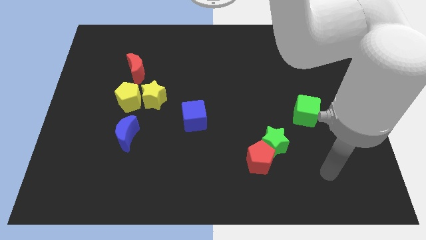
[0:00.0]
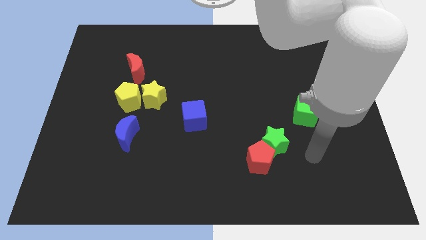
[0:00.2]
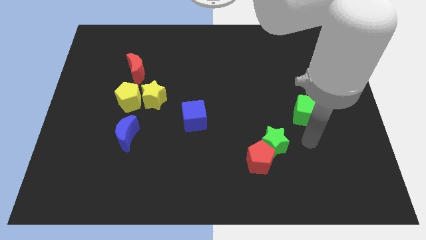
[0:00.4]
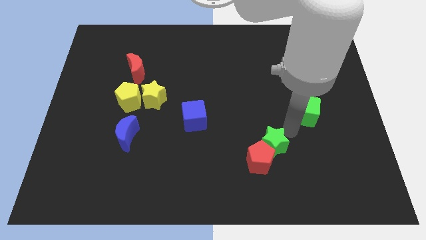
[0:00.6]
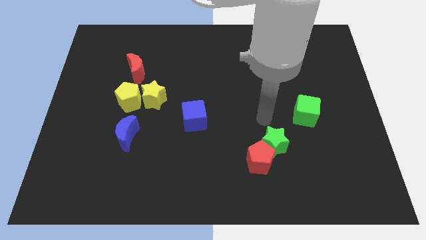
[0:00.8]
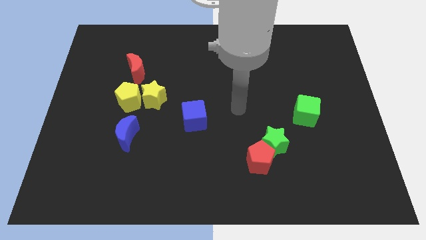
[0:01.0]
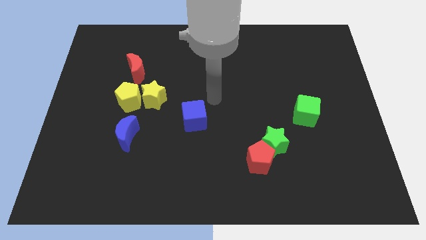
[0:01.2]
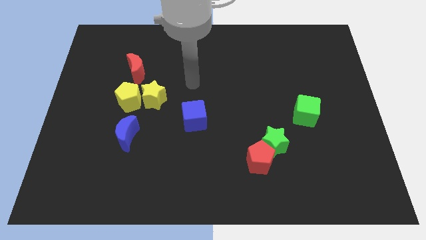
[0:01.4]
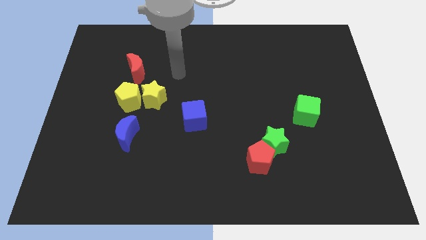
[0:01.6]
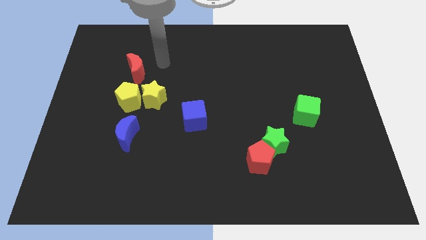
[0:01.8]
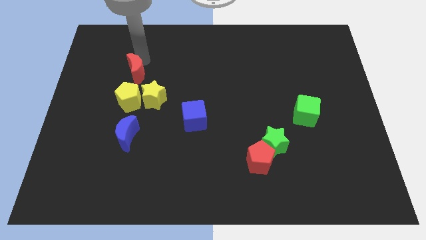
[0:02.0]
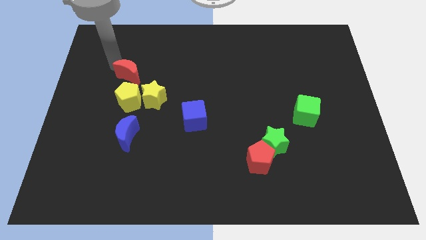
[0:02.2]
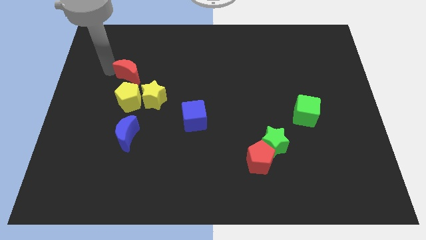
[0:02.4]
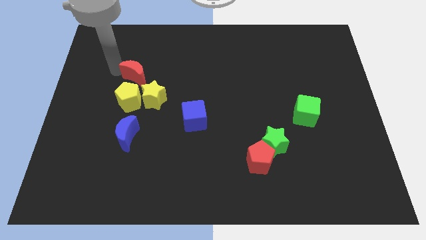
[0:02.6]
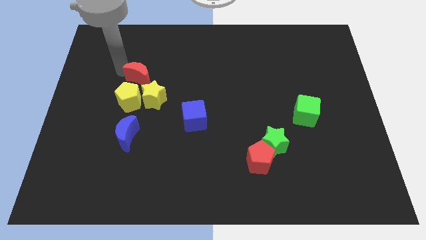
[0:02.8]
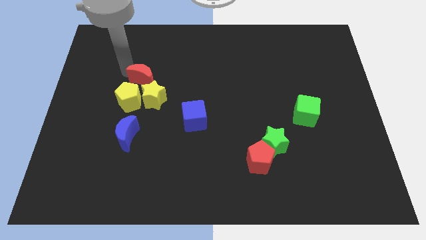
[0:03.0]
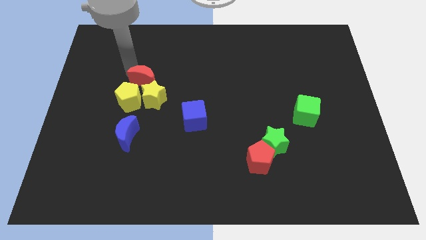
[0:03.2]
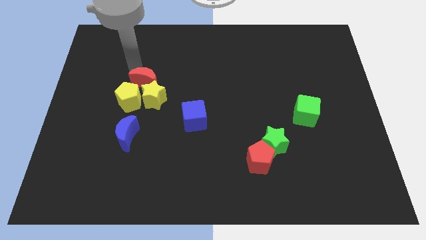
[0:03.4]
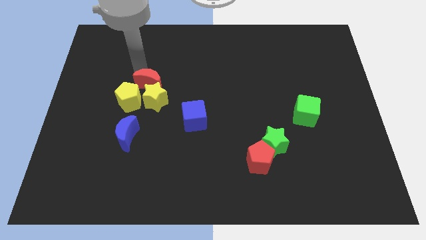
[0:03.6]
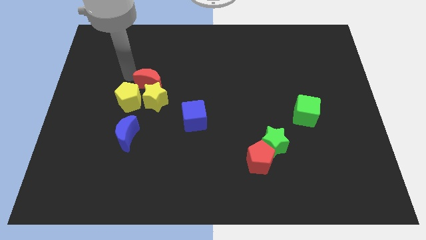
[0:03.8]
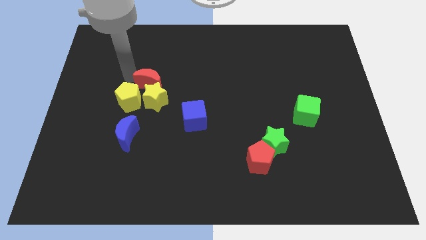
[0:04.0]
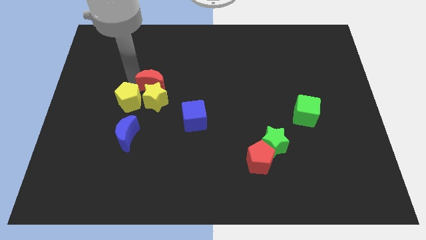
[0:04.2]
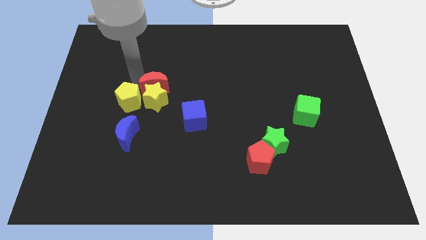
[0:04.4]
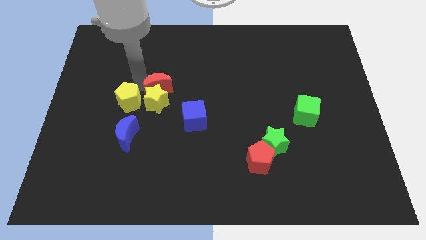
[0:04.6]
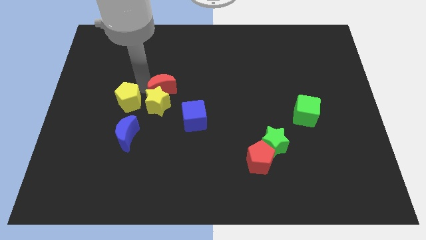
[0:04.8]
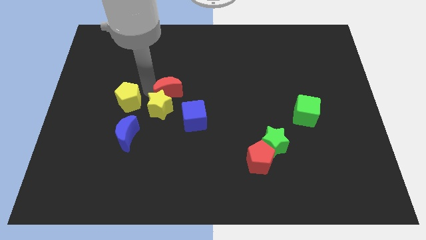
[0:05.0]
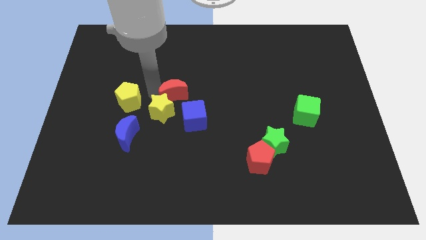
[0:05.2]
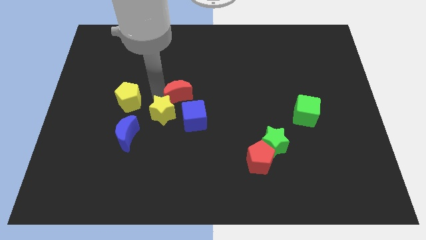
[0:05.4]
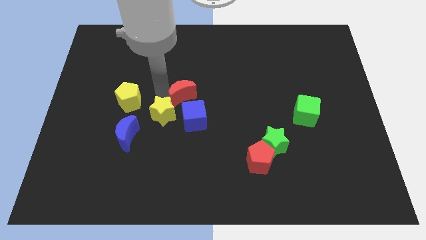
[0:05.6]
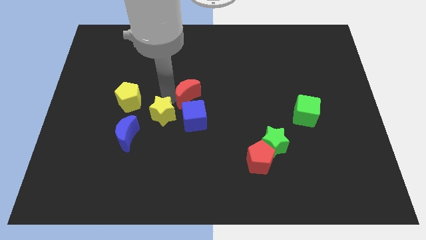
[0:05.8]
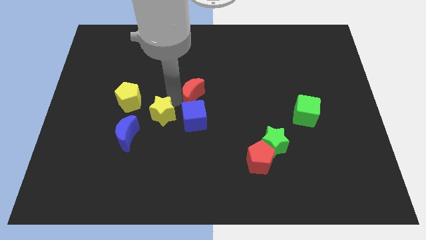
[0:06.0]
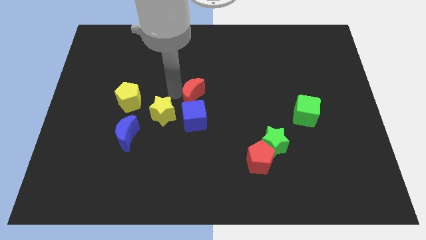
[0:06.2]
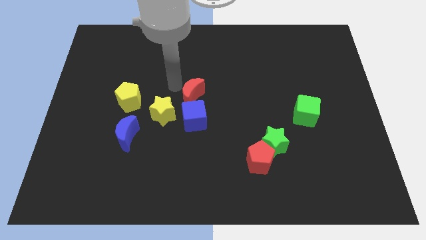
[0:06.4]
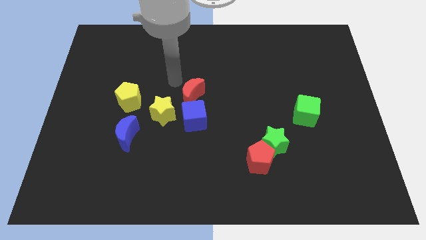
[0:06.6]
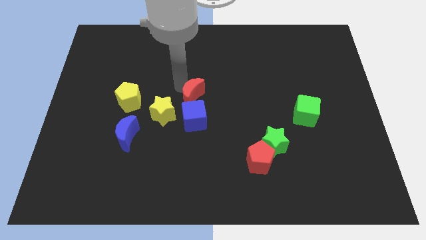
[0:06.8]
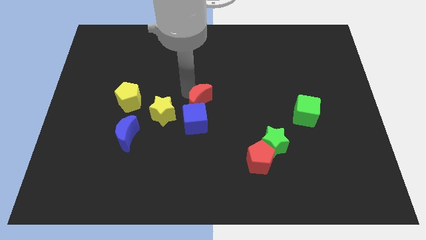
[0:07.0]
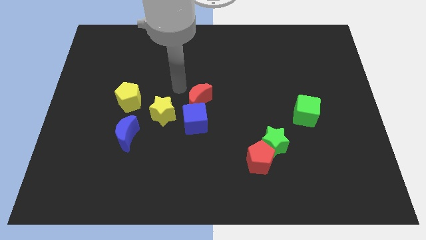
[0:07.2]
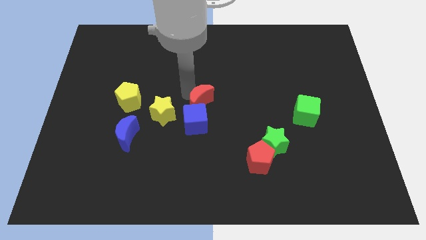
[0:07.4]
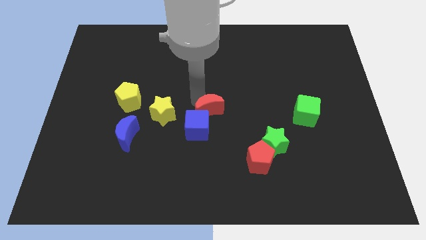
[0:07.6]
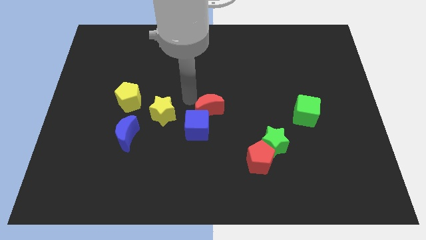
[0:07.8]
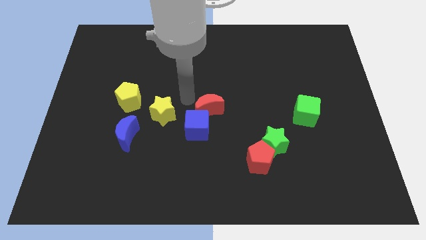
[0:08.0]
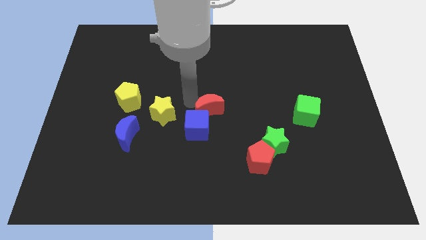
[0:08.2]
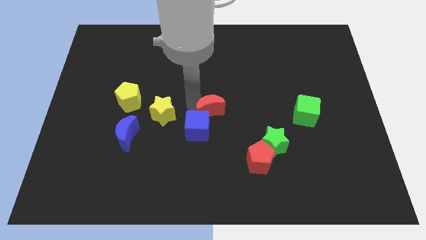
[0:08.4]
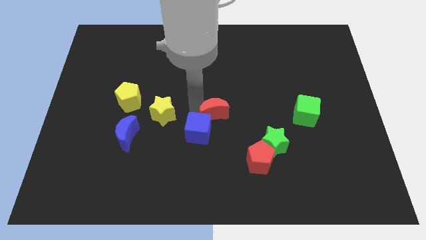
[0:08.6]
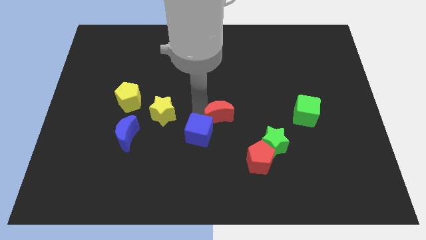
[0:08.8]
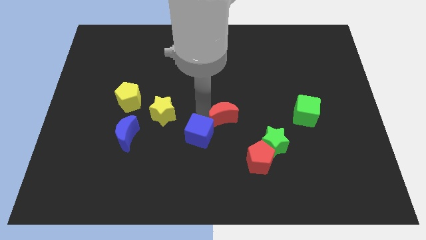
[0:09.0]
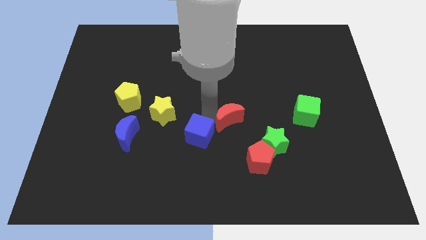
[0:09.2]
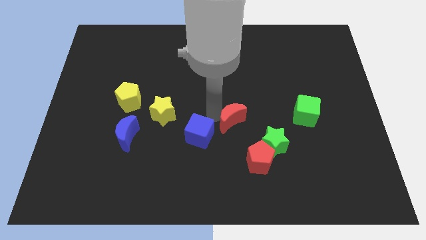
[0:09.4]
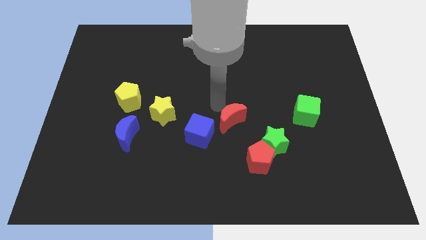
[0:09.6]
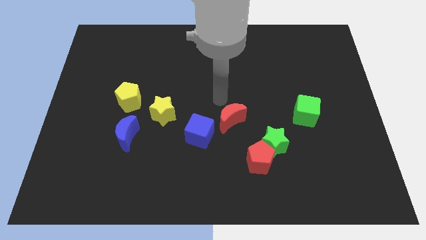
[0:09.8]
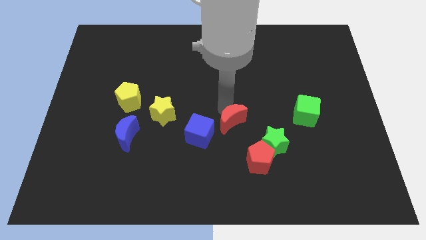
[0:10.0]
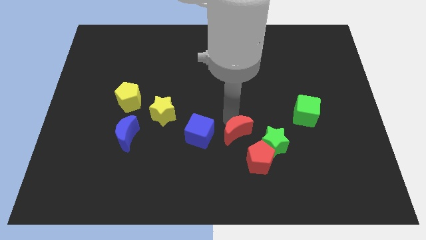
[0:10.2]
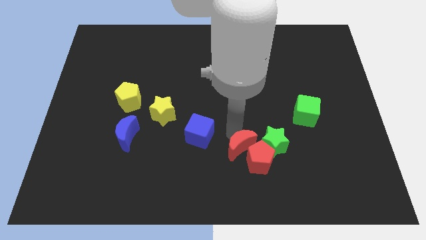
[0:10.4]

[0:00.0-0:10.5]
push the red moon to the red pentagon

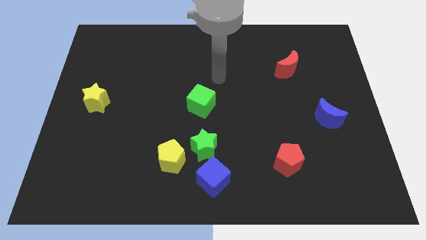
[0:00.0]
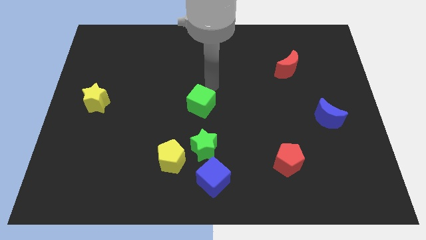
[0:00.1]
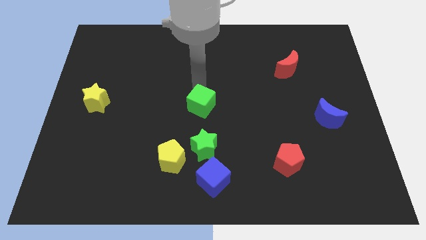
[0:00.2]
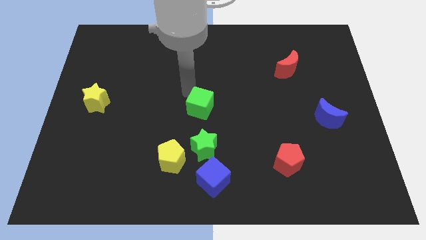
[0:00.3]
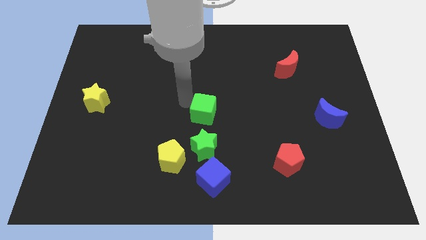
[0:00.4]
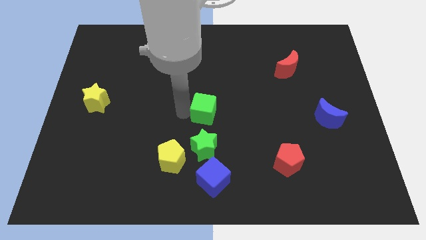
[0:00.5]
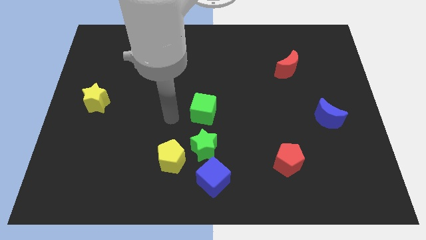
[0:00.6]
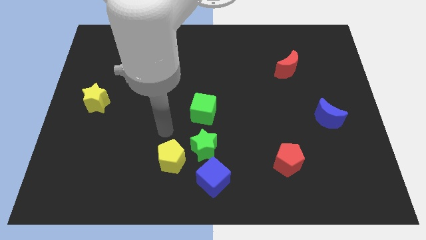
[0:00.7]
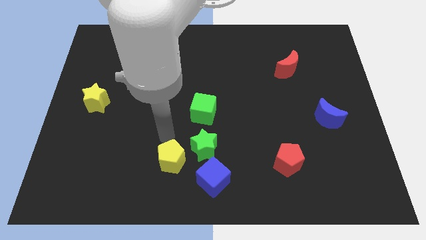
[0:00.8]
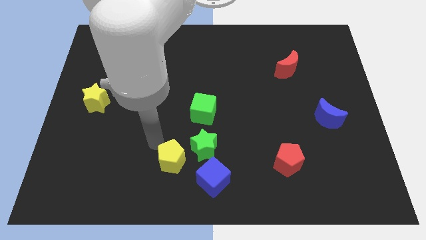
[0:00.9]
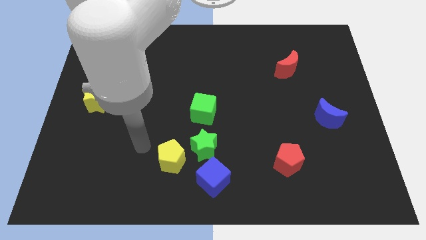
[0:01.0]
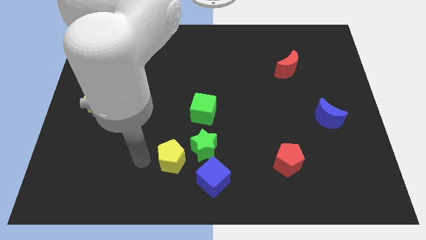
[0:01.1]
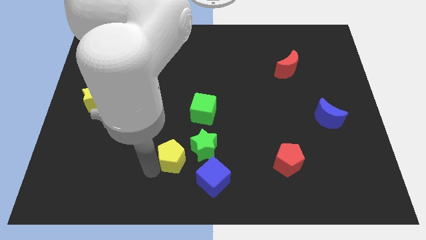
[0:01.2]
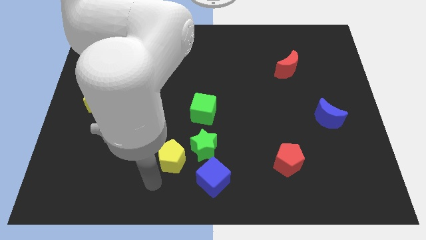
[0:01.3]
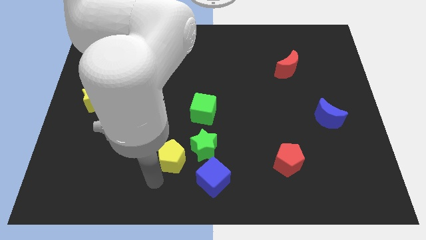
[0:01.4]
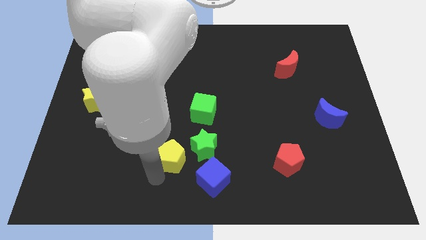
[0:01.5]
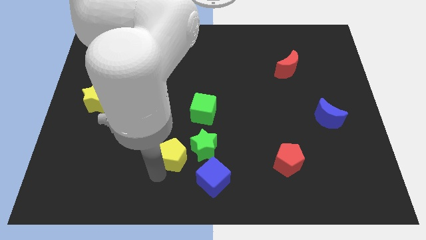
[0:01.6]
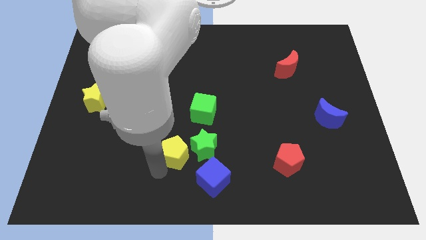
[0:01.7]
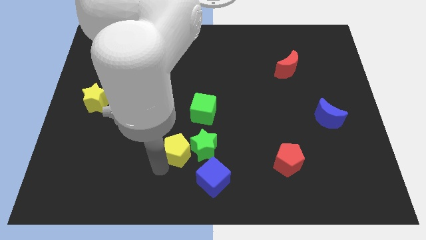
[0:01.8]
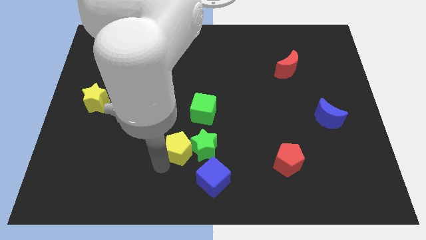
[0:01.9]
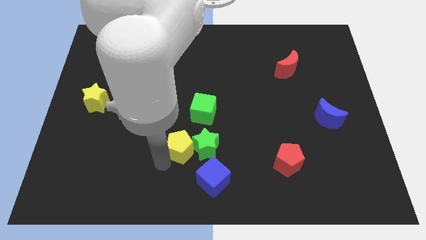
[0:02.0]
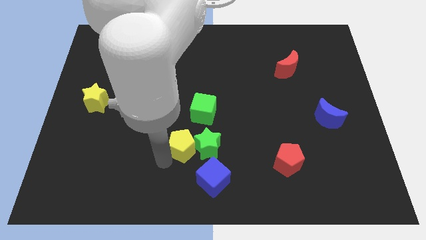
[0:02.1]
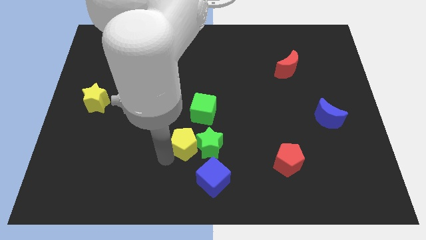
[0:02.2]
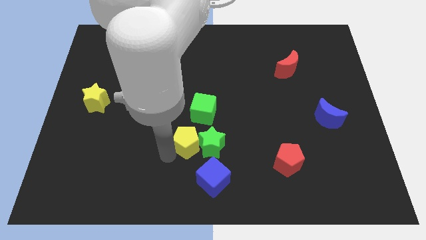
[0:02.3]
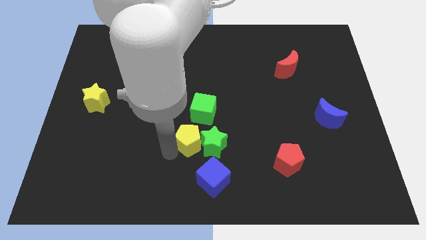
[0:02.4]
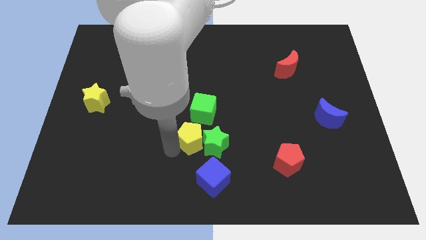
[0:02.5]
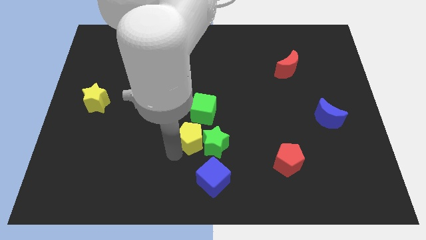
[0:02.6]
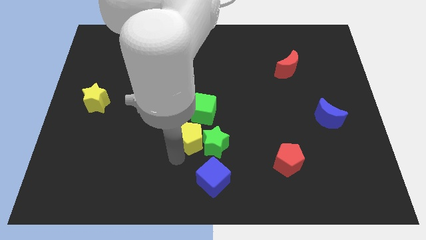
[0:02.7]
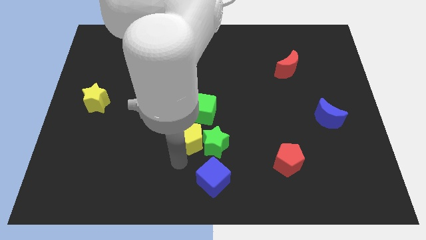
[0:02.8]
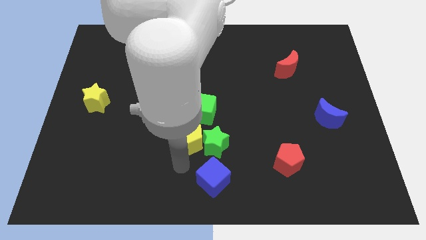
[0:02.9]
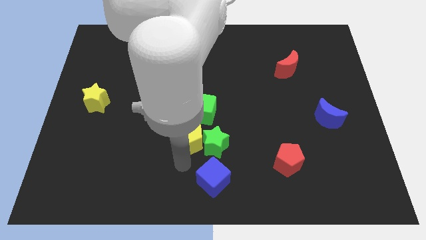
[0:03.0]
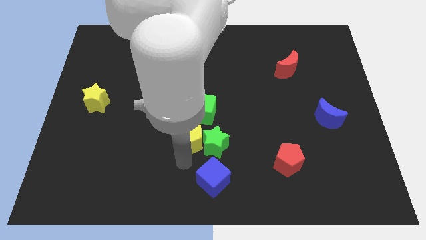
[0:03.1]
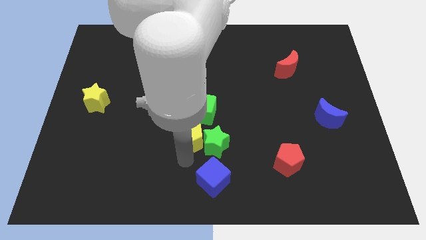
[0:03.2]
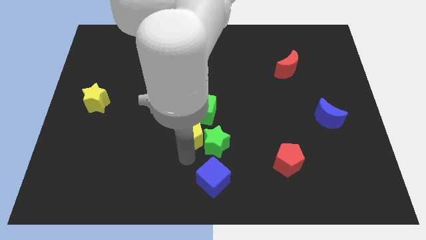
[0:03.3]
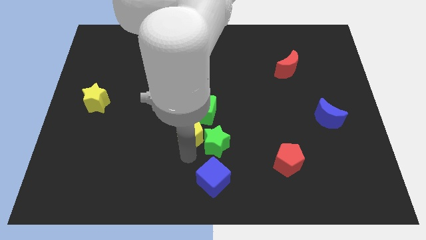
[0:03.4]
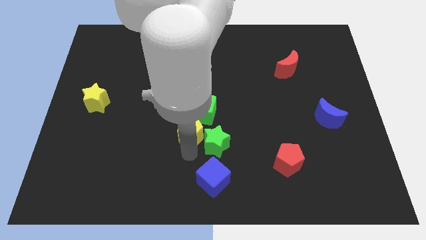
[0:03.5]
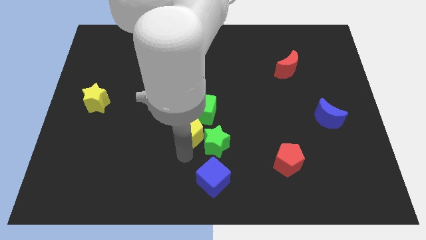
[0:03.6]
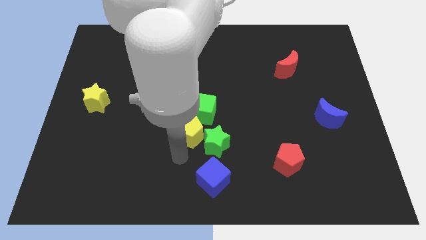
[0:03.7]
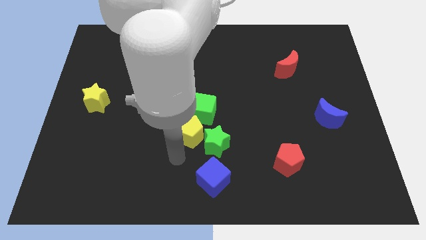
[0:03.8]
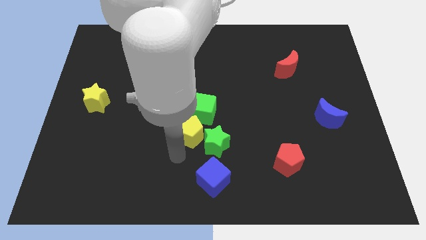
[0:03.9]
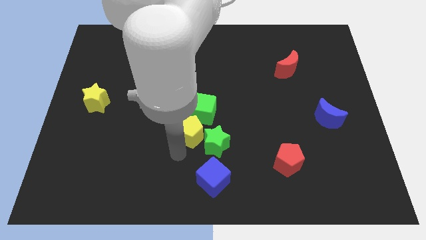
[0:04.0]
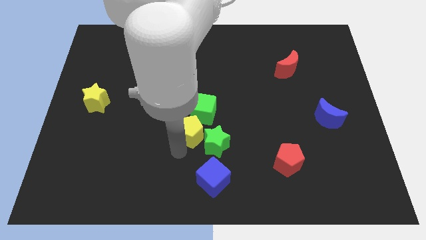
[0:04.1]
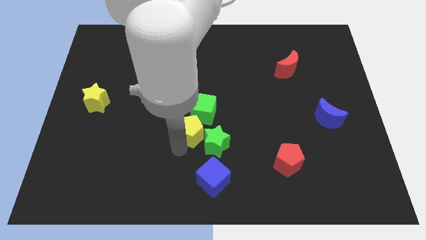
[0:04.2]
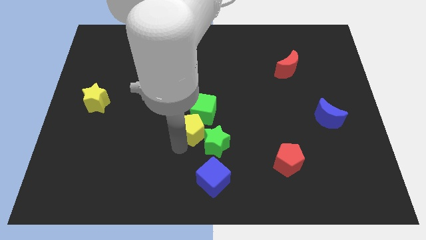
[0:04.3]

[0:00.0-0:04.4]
put the yellow pentagon to the green cube
